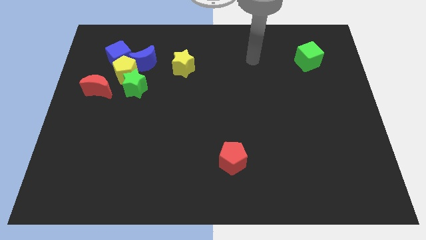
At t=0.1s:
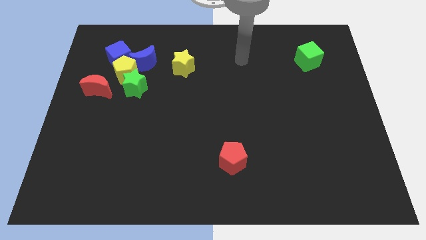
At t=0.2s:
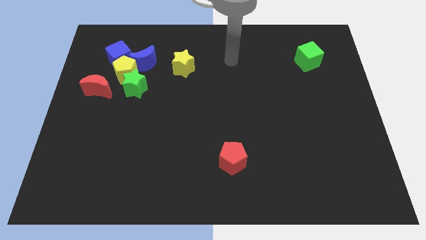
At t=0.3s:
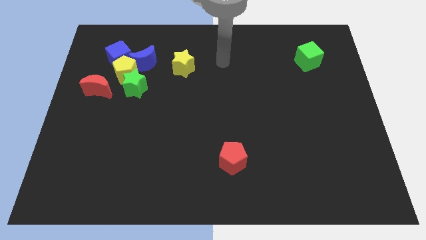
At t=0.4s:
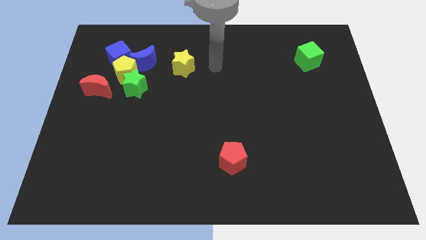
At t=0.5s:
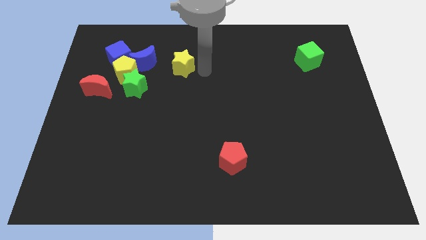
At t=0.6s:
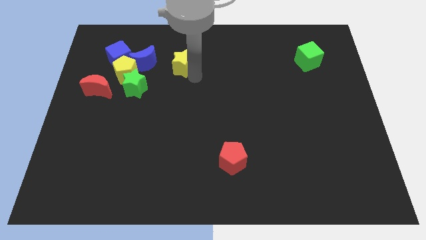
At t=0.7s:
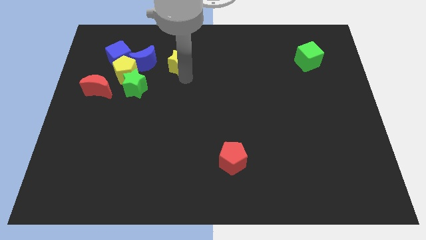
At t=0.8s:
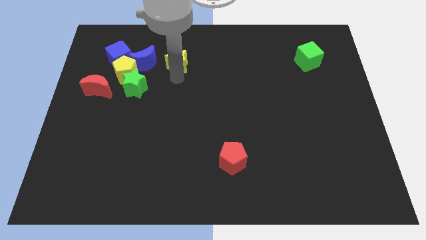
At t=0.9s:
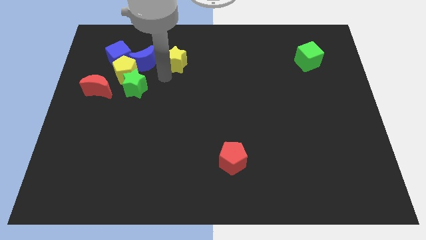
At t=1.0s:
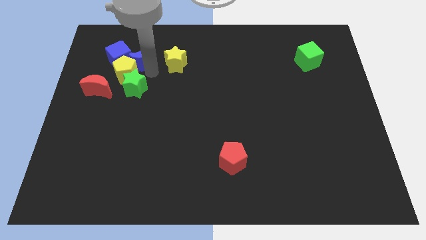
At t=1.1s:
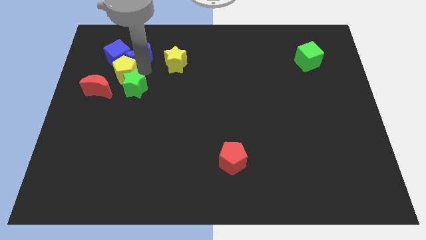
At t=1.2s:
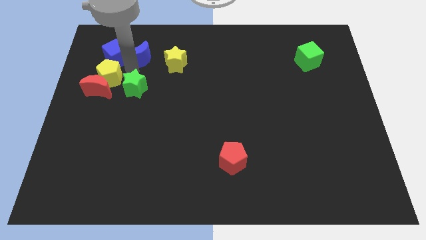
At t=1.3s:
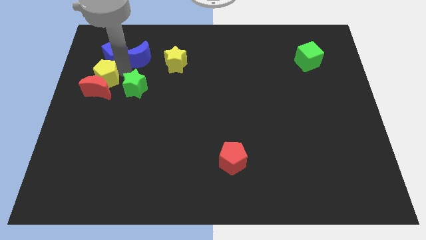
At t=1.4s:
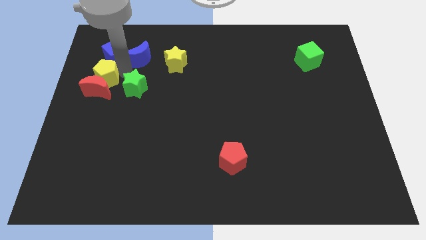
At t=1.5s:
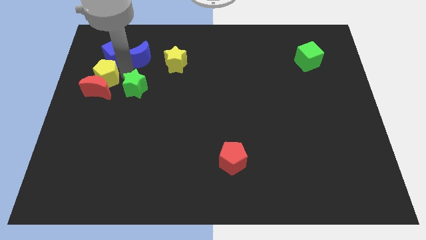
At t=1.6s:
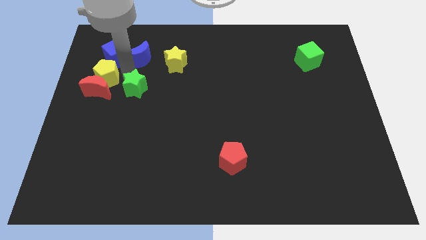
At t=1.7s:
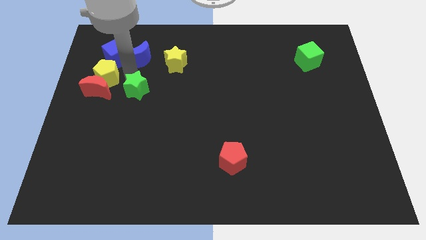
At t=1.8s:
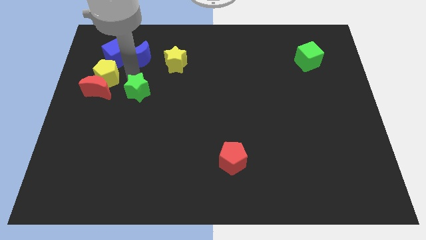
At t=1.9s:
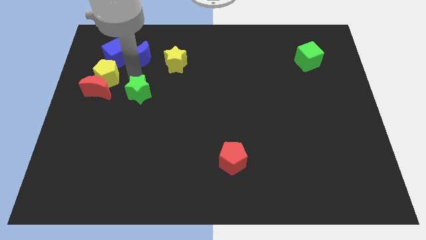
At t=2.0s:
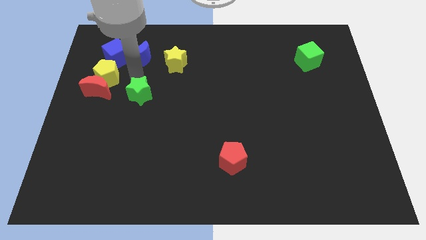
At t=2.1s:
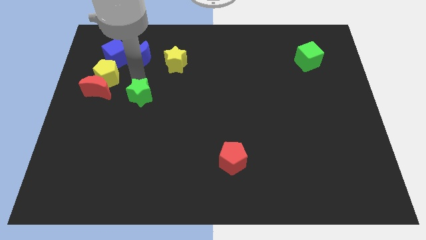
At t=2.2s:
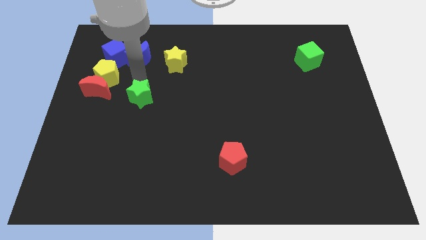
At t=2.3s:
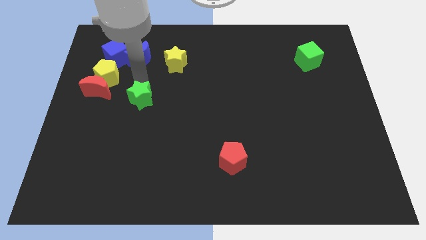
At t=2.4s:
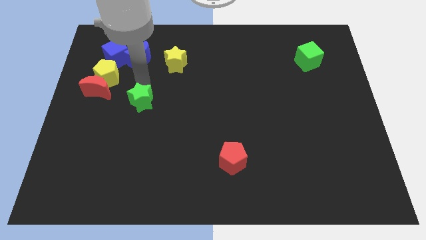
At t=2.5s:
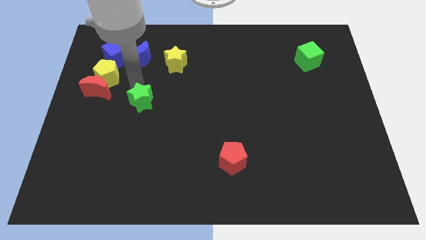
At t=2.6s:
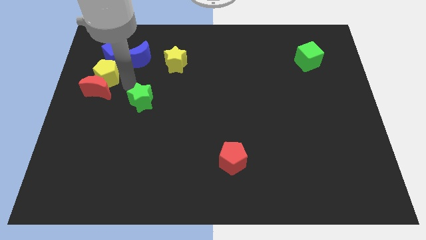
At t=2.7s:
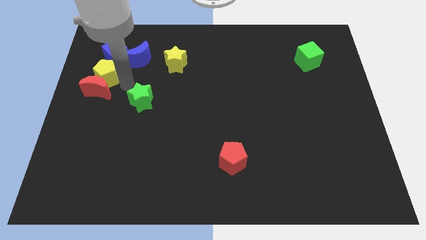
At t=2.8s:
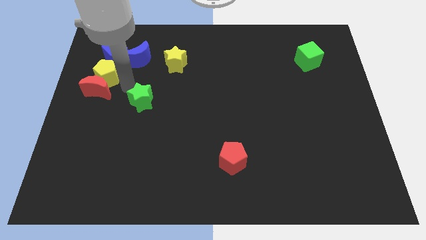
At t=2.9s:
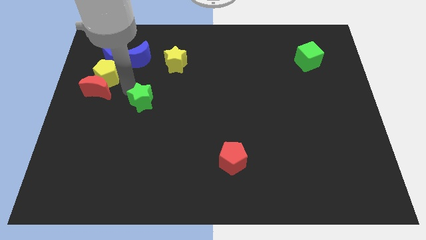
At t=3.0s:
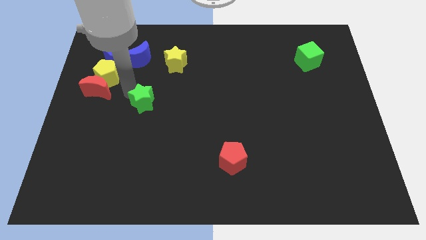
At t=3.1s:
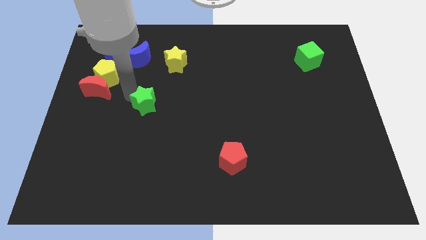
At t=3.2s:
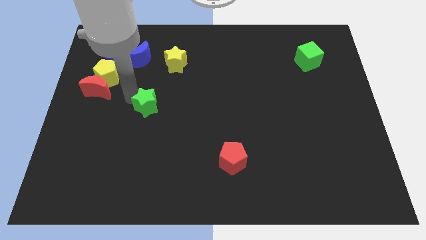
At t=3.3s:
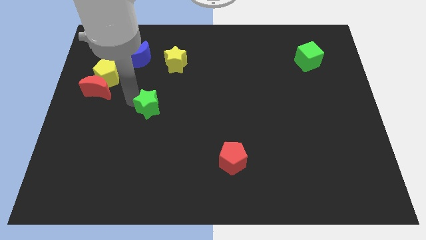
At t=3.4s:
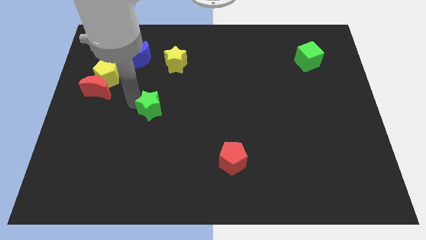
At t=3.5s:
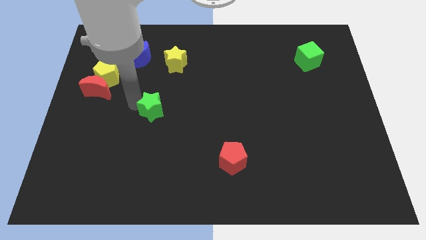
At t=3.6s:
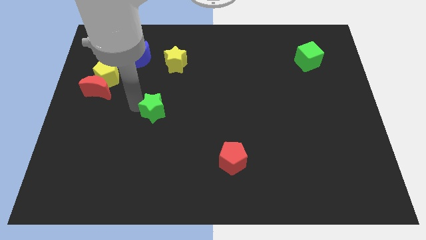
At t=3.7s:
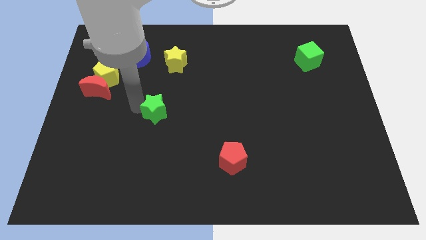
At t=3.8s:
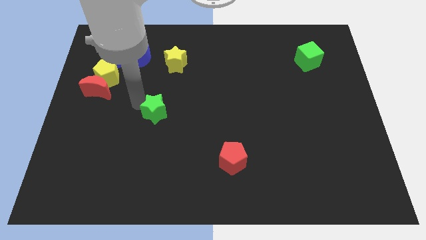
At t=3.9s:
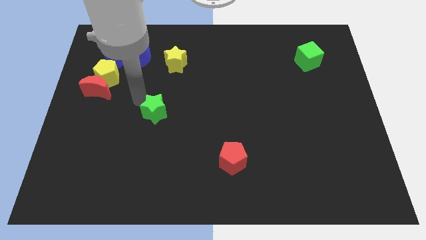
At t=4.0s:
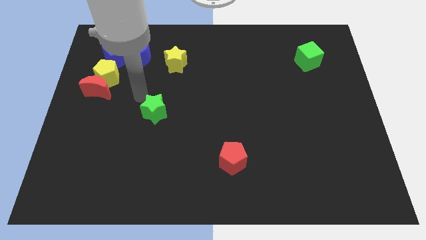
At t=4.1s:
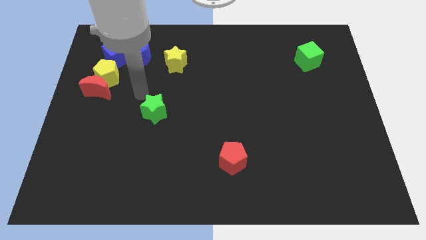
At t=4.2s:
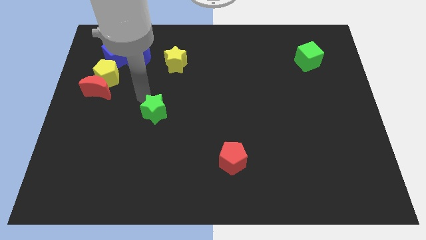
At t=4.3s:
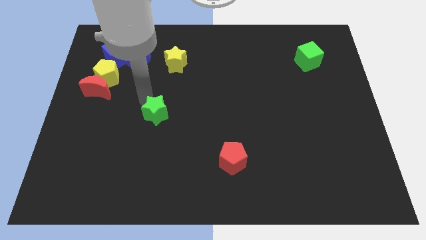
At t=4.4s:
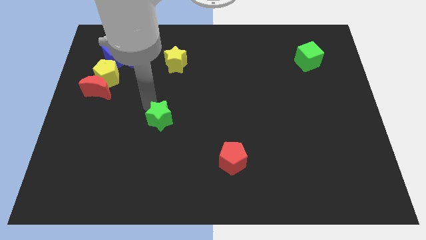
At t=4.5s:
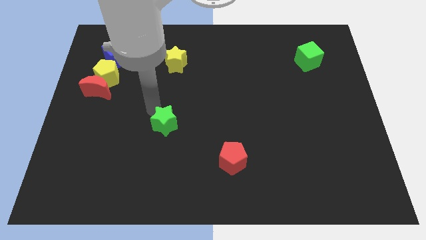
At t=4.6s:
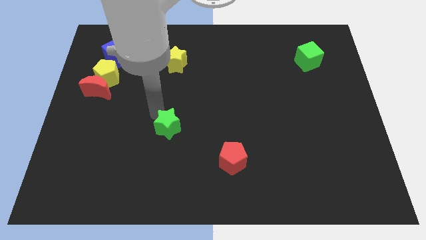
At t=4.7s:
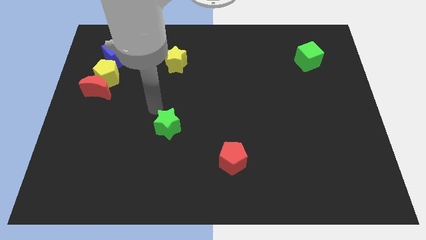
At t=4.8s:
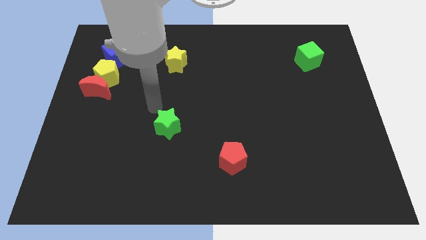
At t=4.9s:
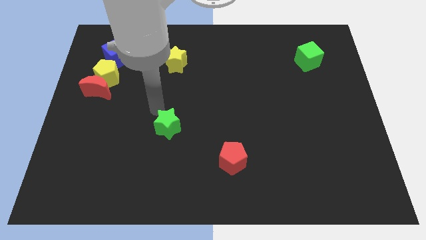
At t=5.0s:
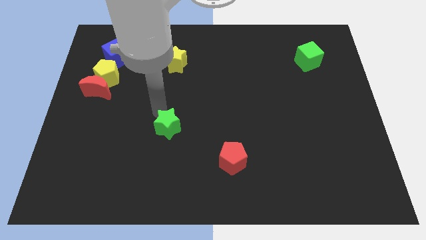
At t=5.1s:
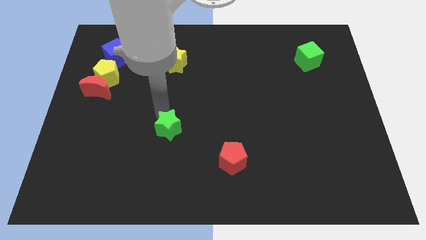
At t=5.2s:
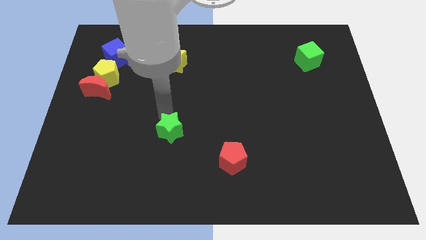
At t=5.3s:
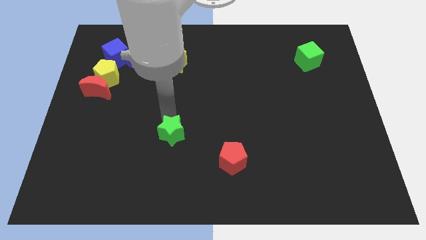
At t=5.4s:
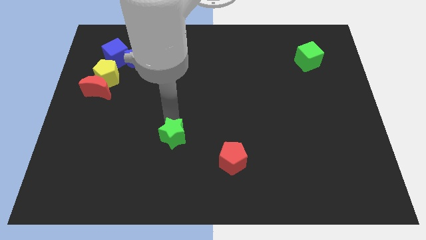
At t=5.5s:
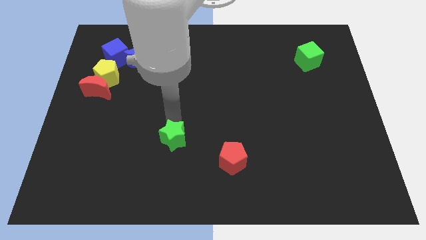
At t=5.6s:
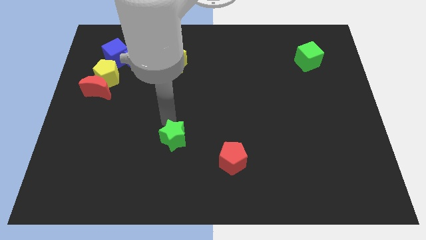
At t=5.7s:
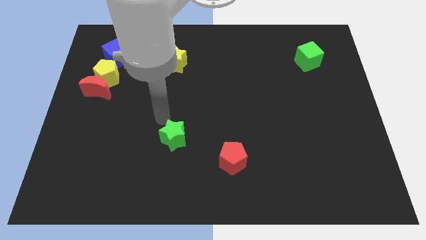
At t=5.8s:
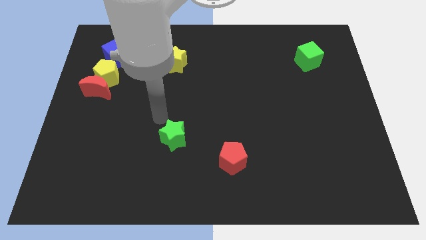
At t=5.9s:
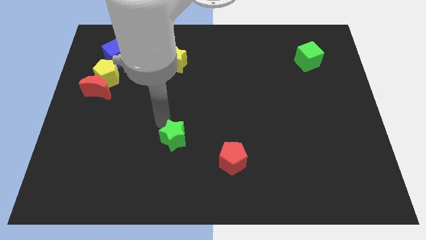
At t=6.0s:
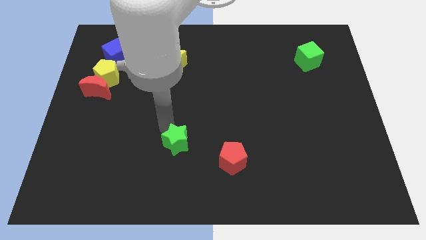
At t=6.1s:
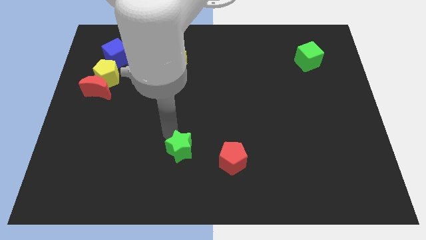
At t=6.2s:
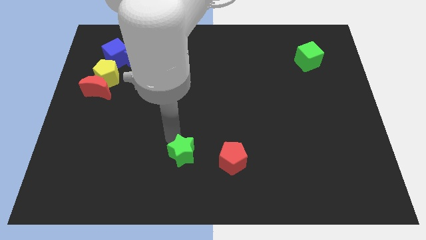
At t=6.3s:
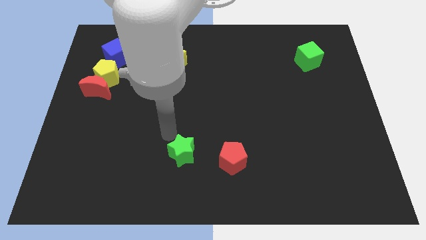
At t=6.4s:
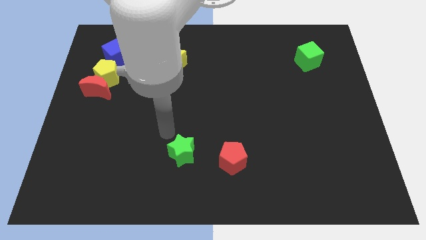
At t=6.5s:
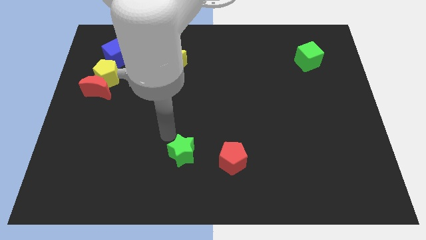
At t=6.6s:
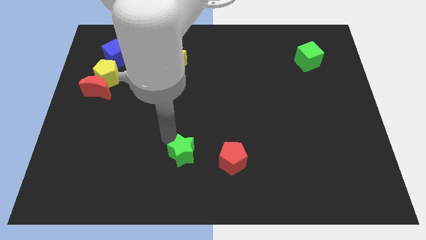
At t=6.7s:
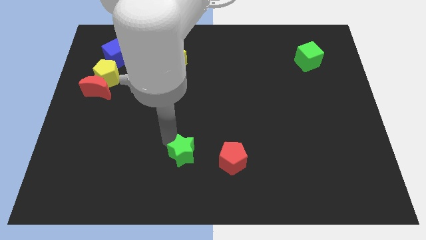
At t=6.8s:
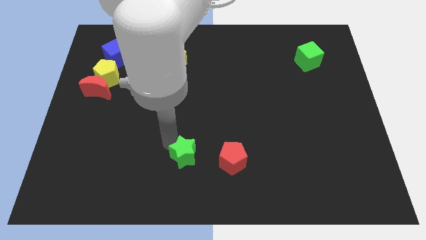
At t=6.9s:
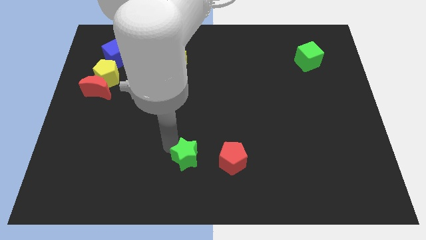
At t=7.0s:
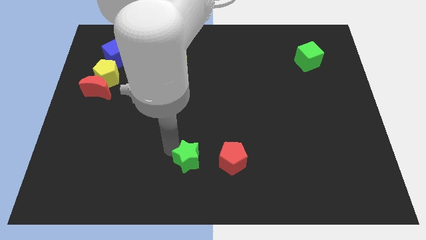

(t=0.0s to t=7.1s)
put the green star to the bottom
